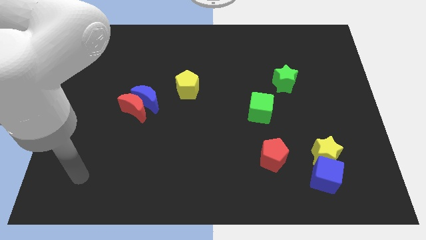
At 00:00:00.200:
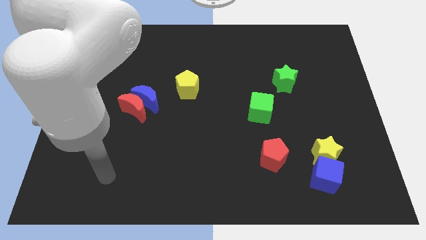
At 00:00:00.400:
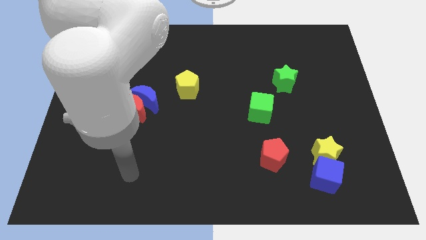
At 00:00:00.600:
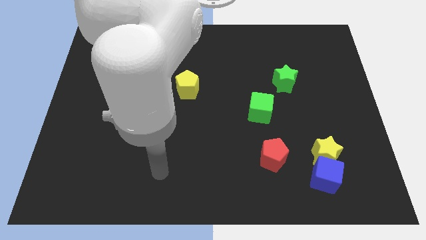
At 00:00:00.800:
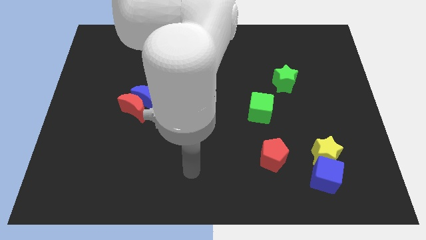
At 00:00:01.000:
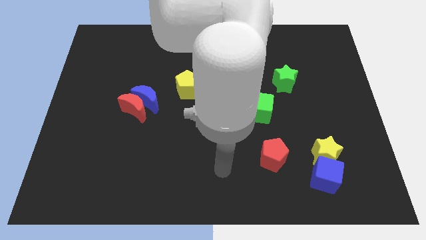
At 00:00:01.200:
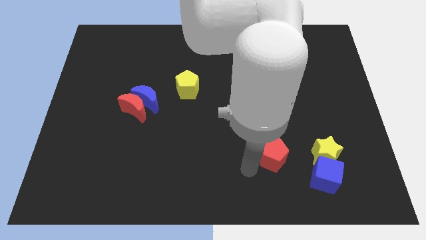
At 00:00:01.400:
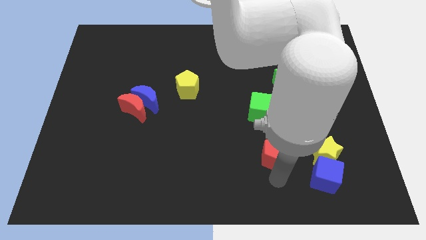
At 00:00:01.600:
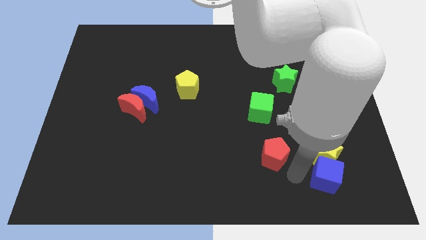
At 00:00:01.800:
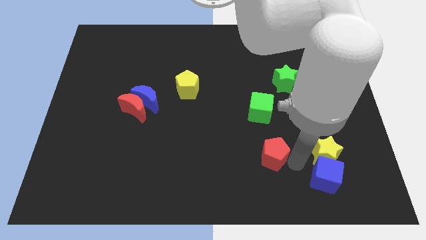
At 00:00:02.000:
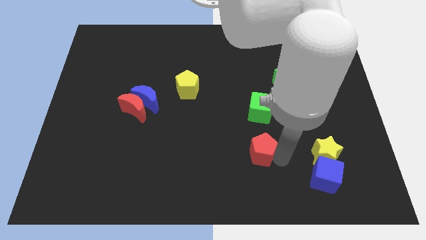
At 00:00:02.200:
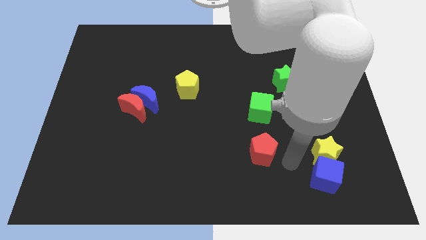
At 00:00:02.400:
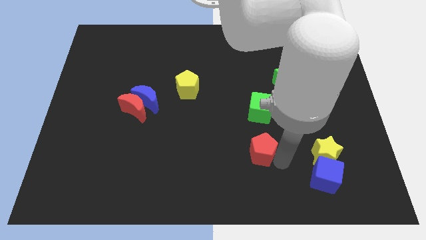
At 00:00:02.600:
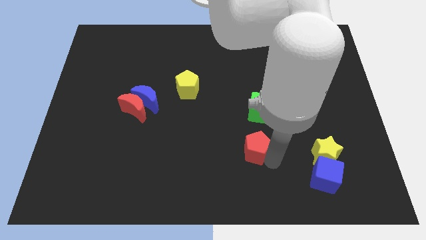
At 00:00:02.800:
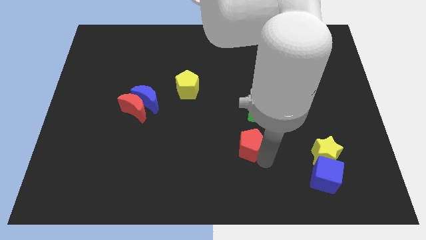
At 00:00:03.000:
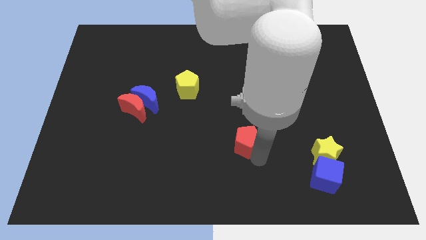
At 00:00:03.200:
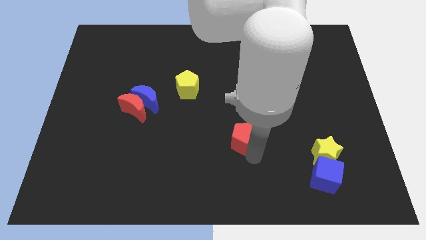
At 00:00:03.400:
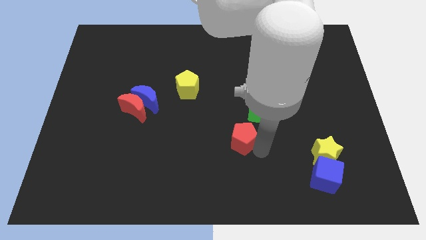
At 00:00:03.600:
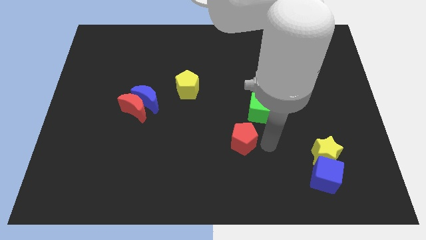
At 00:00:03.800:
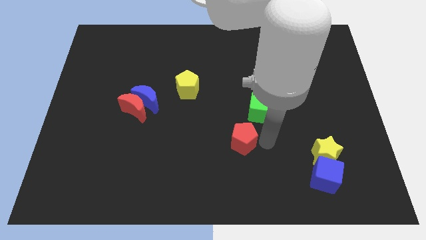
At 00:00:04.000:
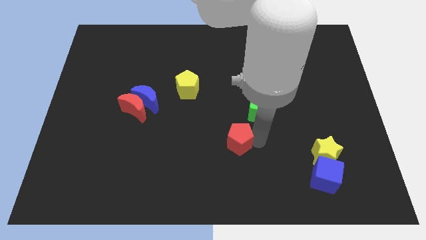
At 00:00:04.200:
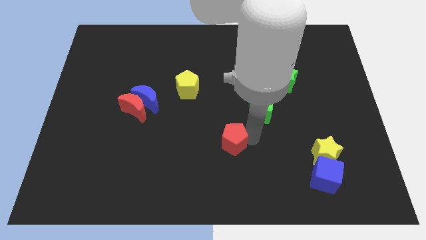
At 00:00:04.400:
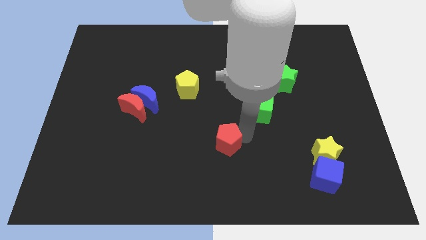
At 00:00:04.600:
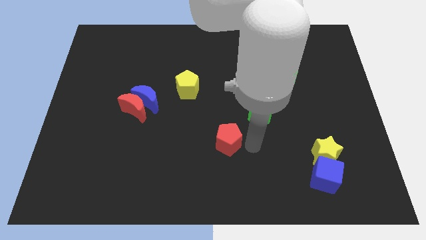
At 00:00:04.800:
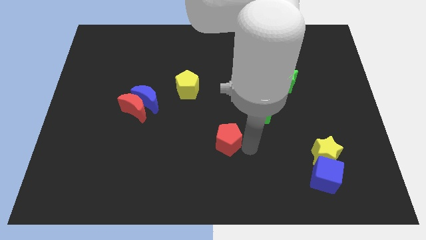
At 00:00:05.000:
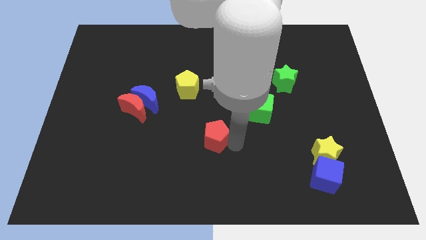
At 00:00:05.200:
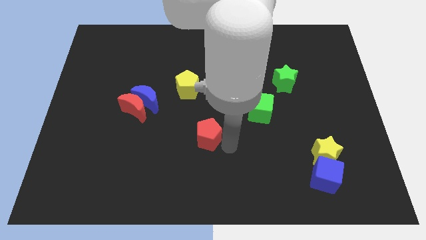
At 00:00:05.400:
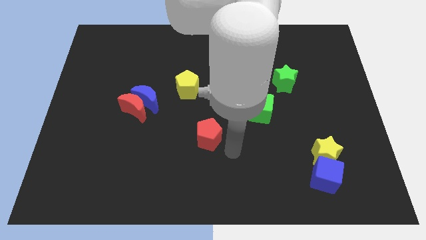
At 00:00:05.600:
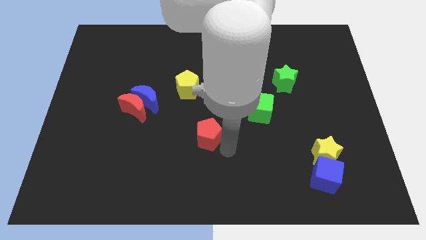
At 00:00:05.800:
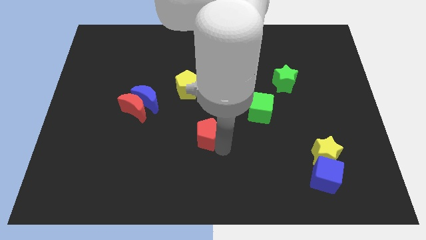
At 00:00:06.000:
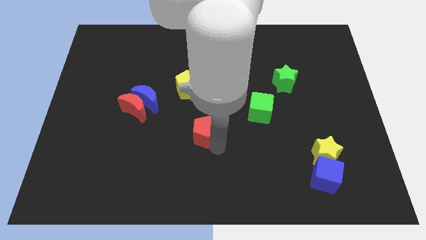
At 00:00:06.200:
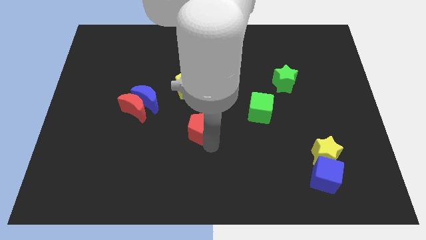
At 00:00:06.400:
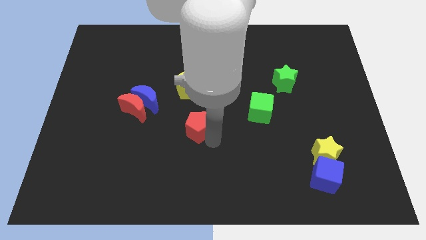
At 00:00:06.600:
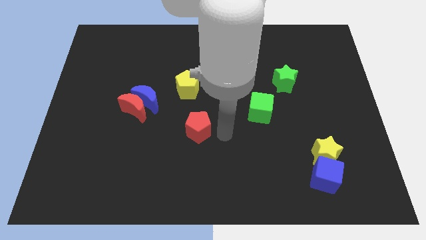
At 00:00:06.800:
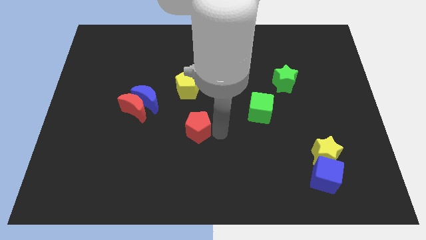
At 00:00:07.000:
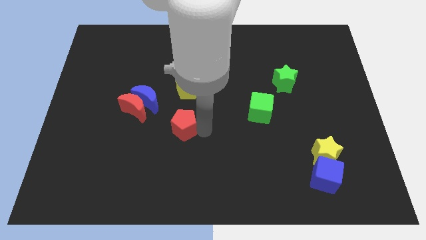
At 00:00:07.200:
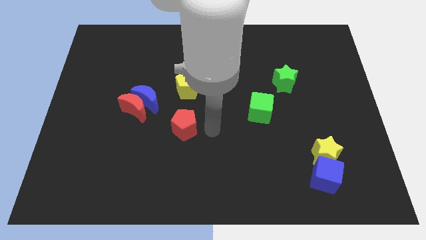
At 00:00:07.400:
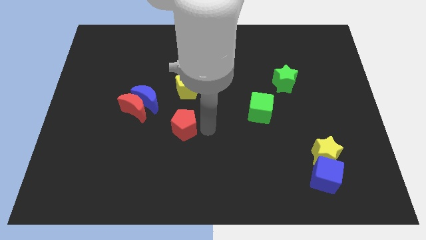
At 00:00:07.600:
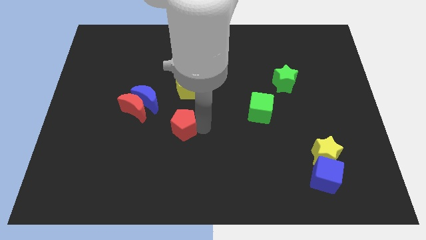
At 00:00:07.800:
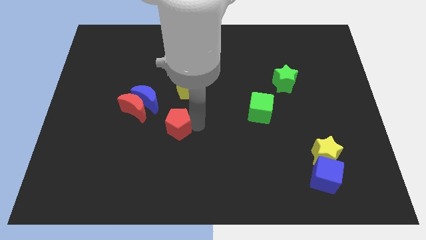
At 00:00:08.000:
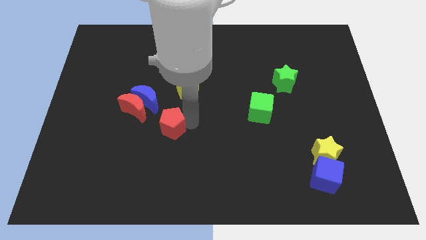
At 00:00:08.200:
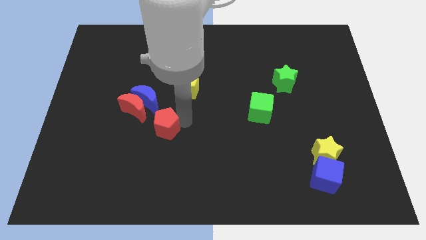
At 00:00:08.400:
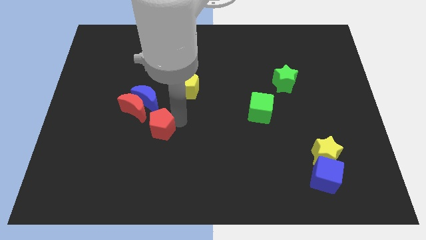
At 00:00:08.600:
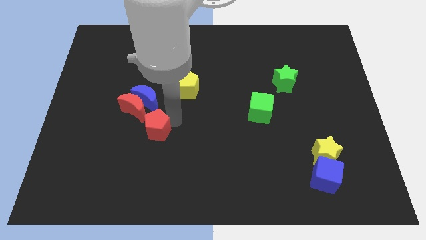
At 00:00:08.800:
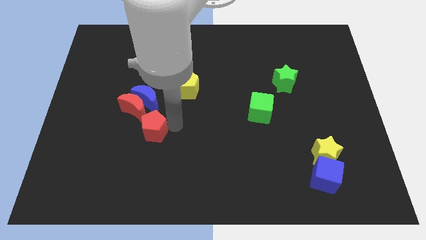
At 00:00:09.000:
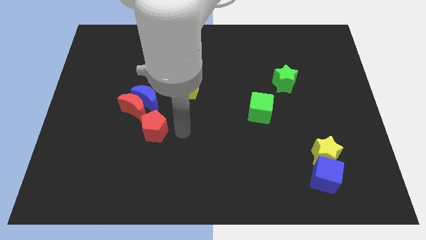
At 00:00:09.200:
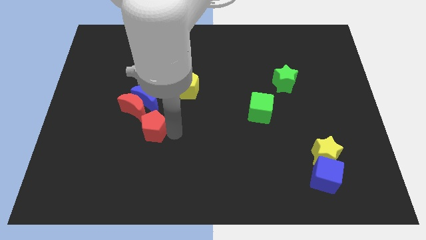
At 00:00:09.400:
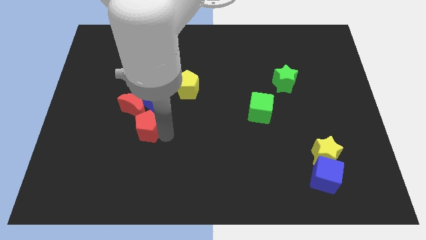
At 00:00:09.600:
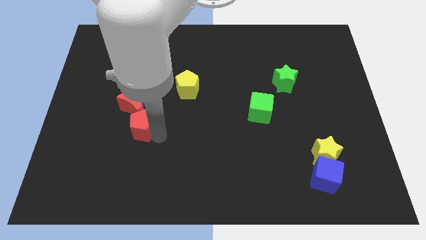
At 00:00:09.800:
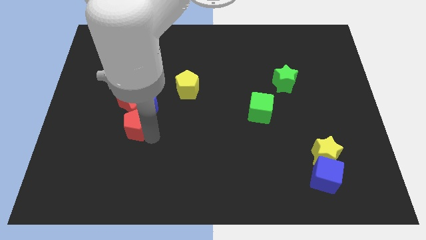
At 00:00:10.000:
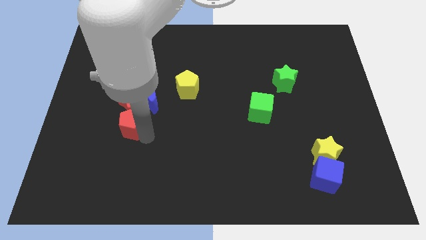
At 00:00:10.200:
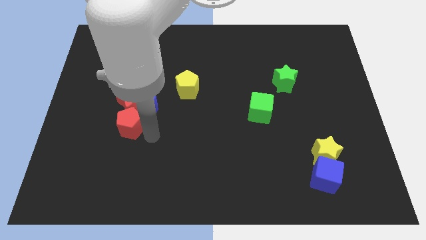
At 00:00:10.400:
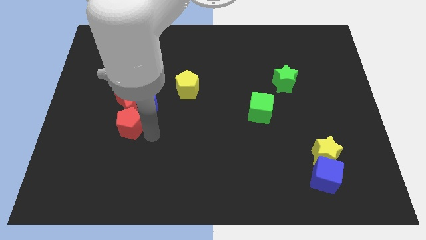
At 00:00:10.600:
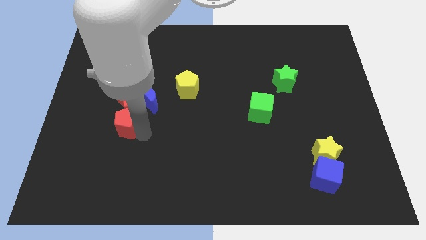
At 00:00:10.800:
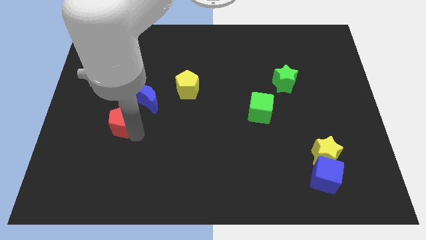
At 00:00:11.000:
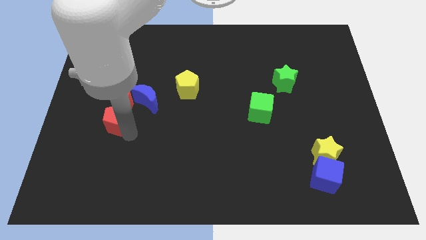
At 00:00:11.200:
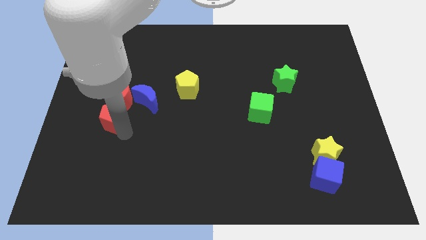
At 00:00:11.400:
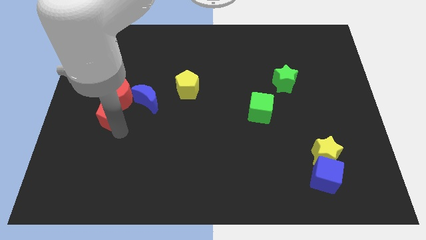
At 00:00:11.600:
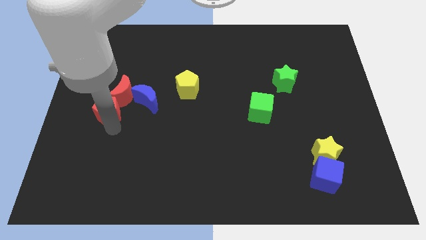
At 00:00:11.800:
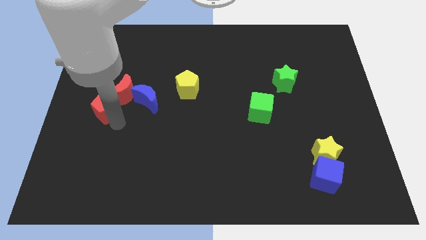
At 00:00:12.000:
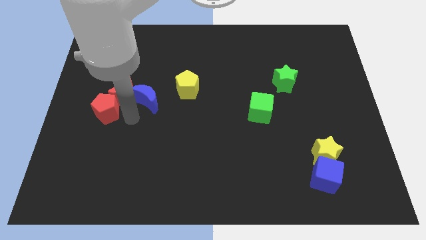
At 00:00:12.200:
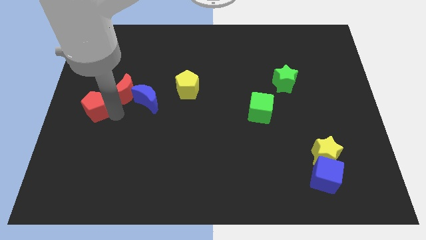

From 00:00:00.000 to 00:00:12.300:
put the red pentagon to the left side of the board

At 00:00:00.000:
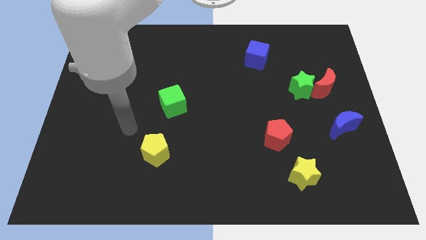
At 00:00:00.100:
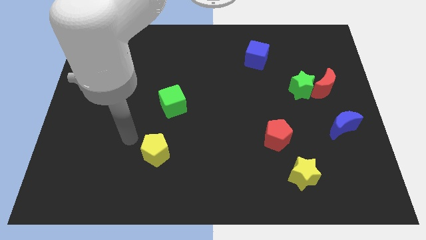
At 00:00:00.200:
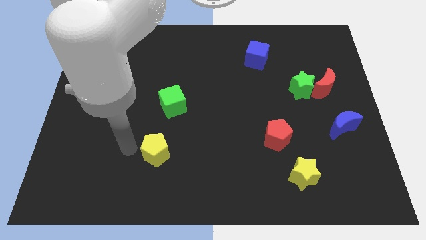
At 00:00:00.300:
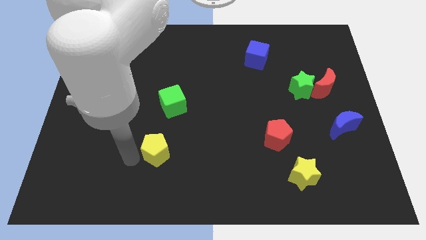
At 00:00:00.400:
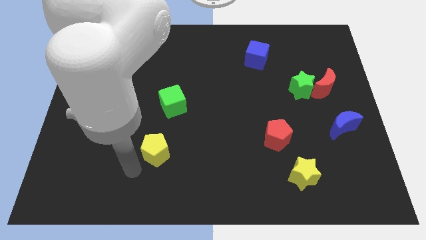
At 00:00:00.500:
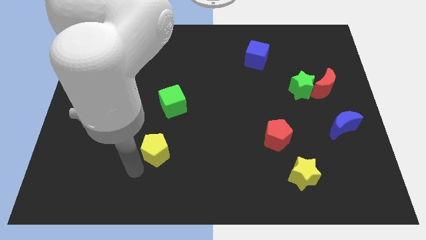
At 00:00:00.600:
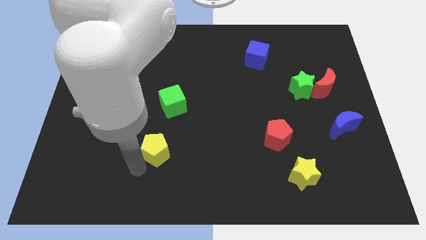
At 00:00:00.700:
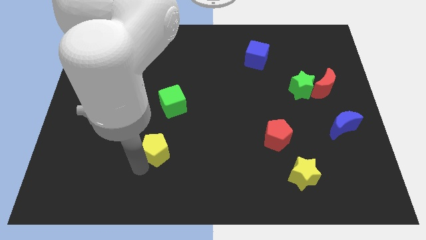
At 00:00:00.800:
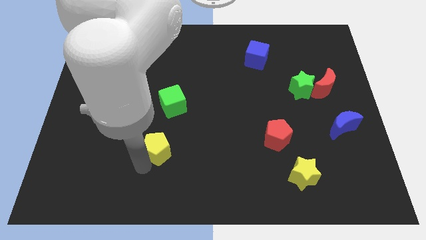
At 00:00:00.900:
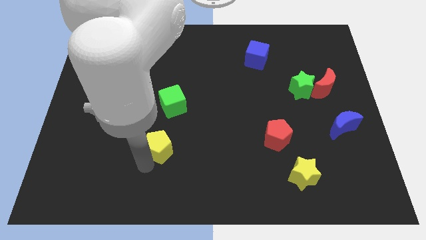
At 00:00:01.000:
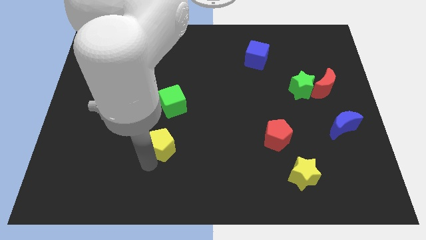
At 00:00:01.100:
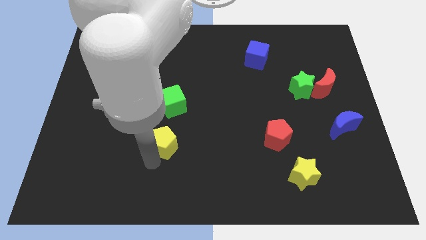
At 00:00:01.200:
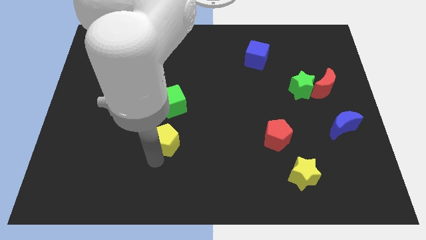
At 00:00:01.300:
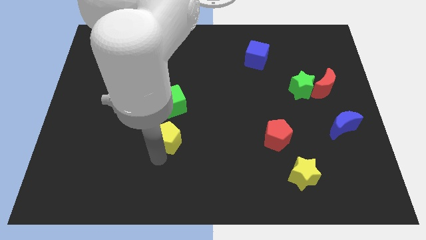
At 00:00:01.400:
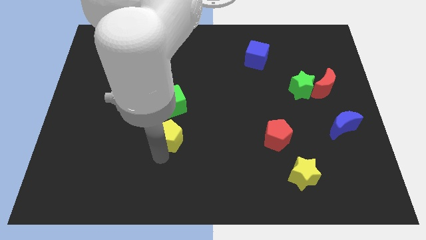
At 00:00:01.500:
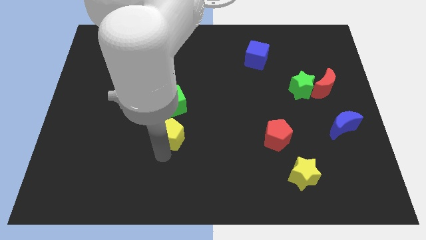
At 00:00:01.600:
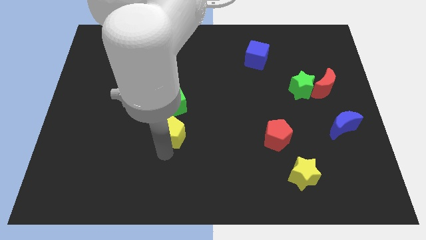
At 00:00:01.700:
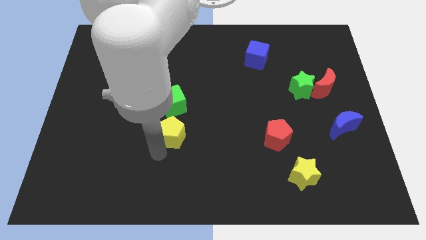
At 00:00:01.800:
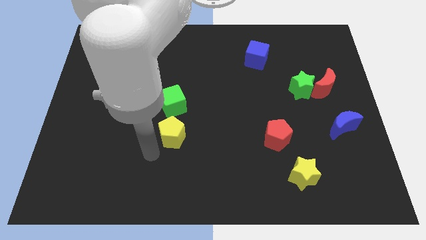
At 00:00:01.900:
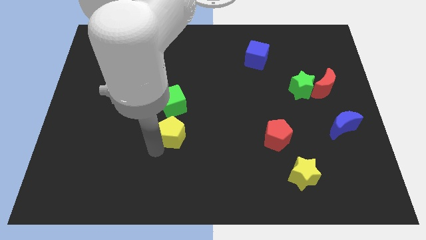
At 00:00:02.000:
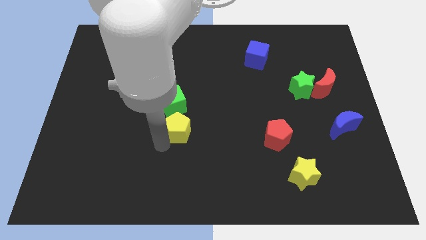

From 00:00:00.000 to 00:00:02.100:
move the yellow pentagon to the middle
